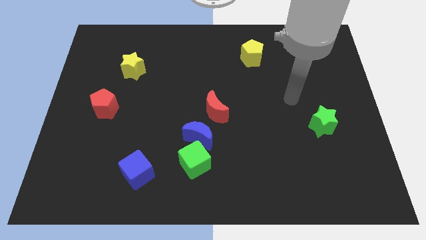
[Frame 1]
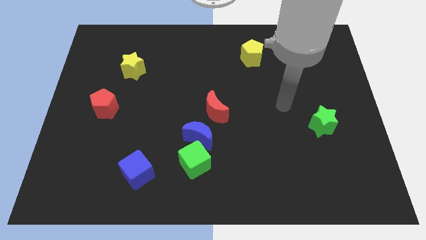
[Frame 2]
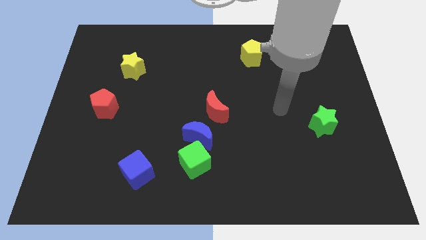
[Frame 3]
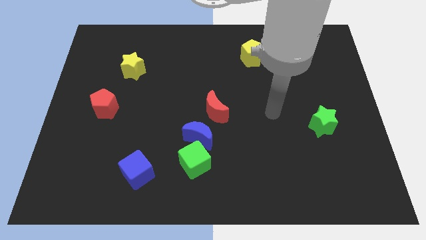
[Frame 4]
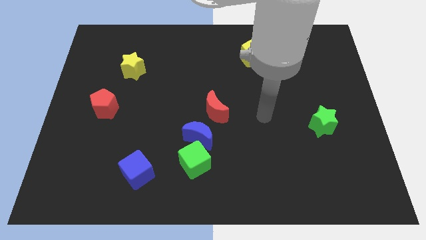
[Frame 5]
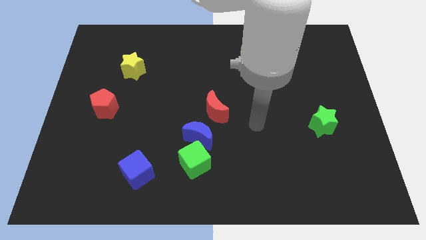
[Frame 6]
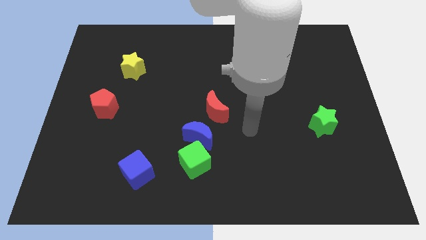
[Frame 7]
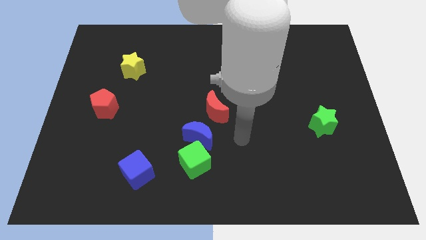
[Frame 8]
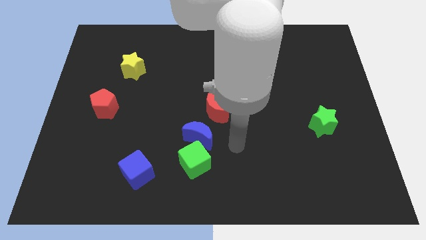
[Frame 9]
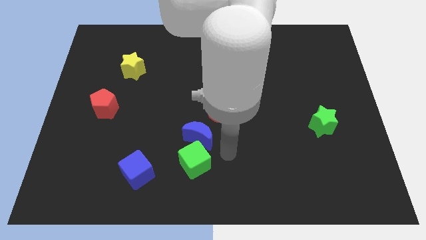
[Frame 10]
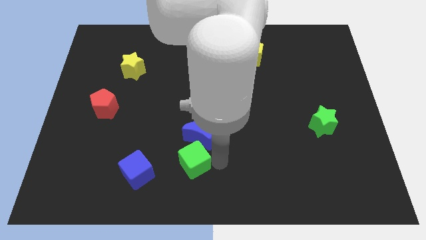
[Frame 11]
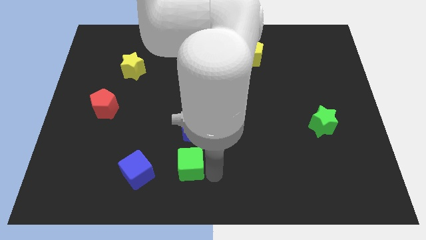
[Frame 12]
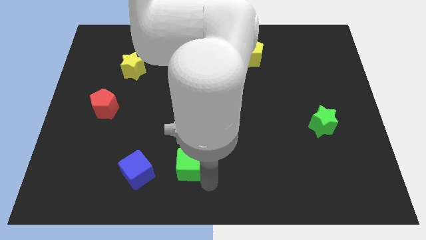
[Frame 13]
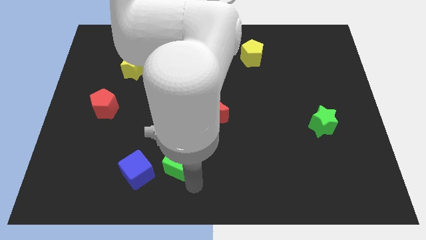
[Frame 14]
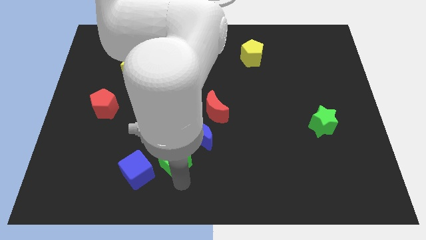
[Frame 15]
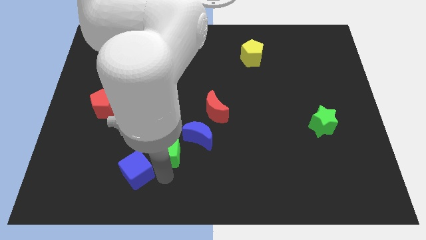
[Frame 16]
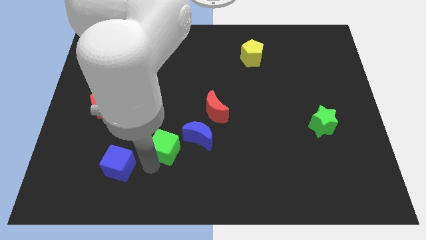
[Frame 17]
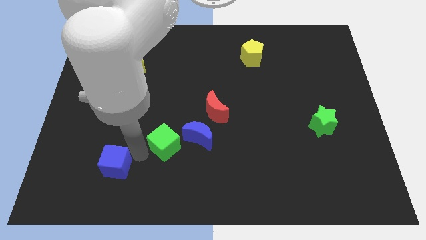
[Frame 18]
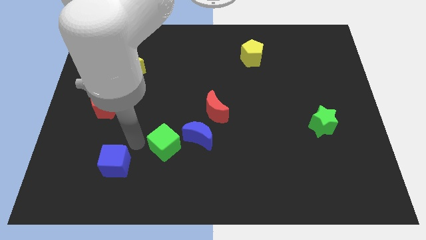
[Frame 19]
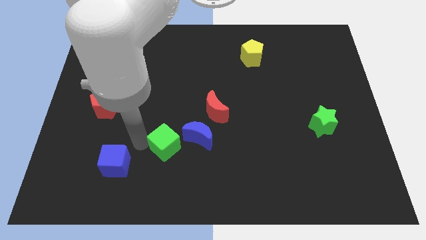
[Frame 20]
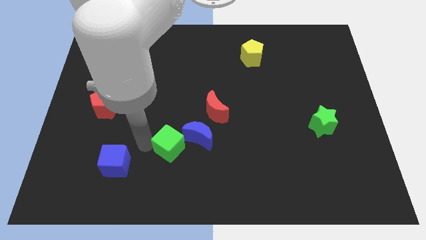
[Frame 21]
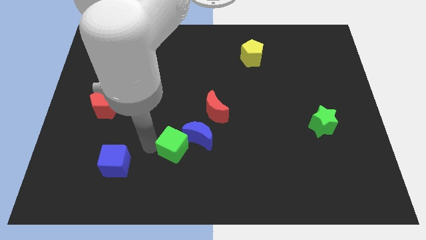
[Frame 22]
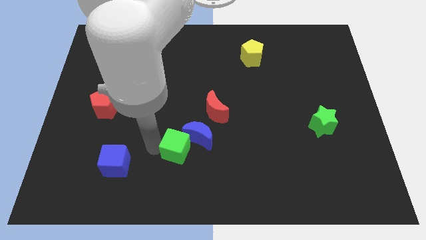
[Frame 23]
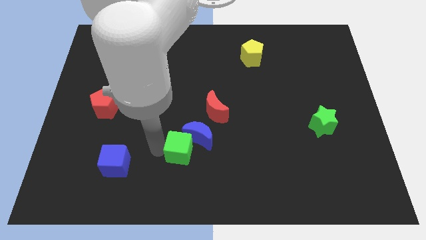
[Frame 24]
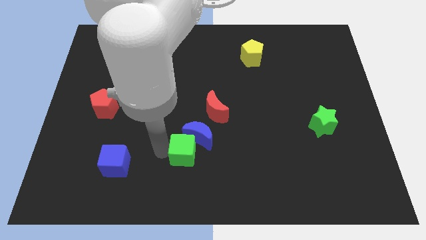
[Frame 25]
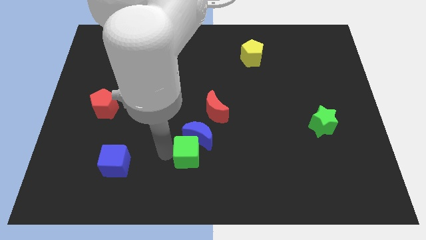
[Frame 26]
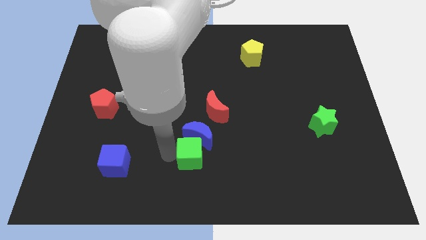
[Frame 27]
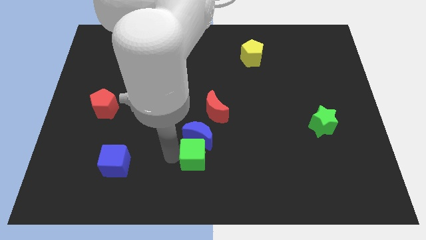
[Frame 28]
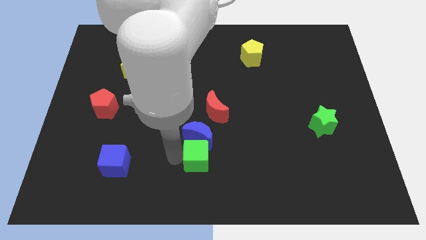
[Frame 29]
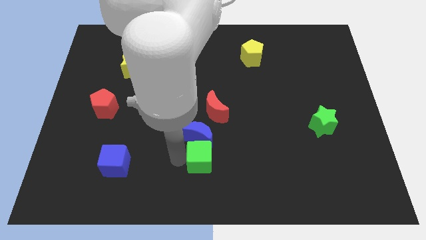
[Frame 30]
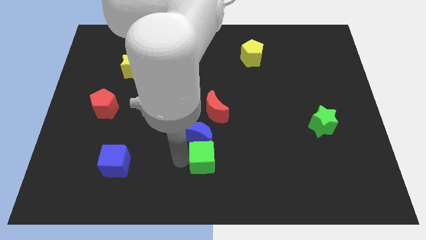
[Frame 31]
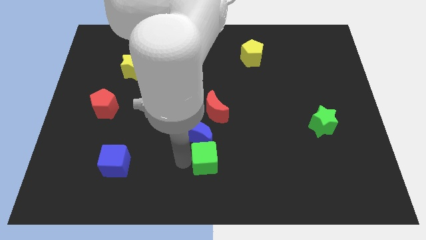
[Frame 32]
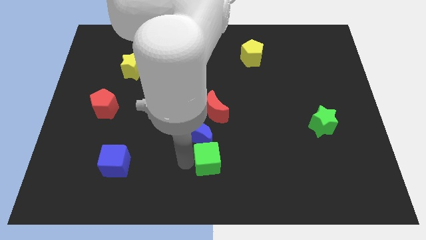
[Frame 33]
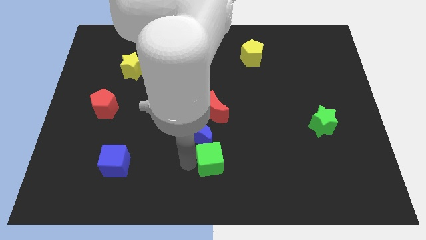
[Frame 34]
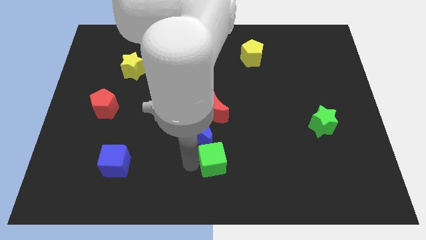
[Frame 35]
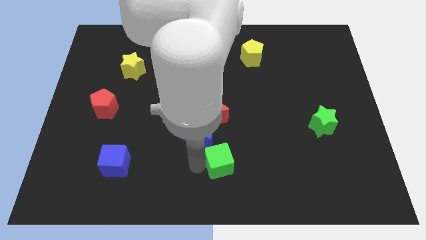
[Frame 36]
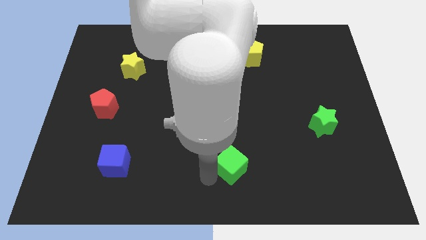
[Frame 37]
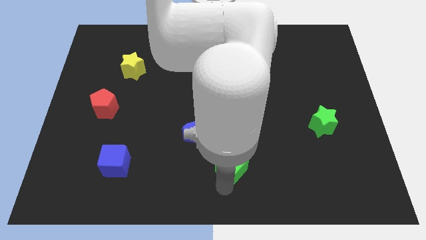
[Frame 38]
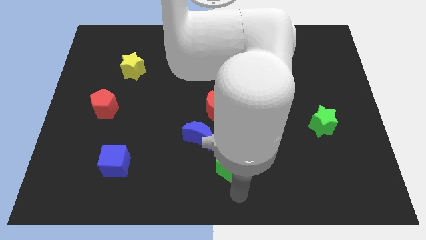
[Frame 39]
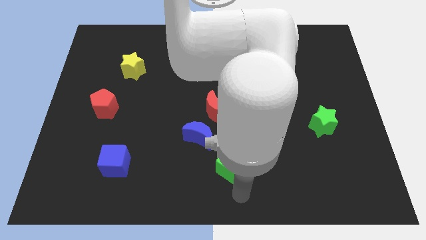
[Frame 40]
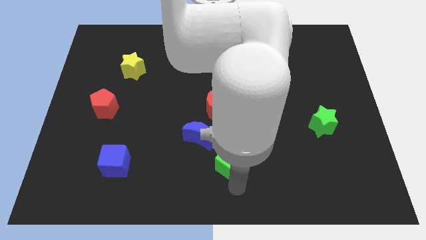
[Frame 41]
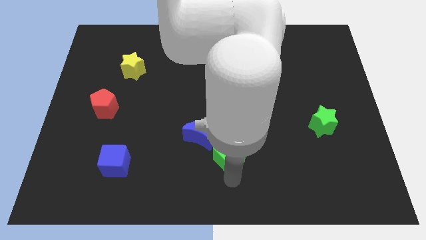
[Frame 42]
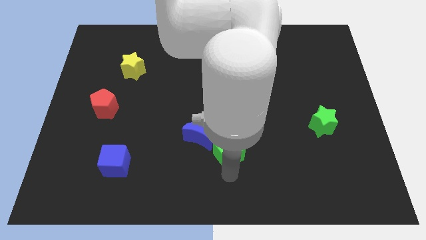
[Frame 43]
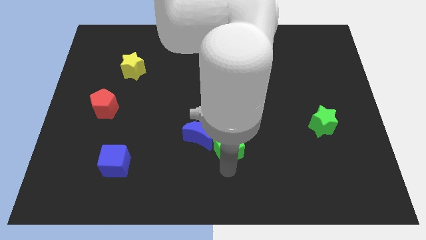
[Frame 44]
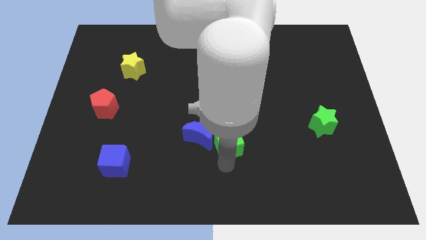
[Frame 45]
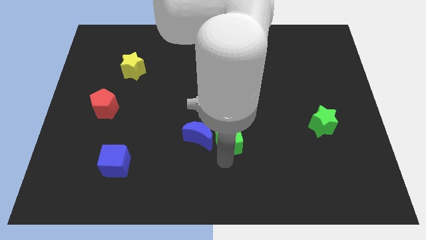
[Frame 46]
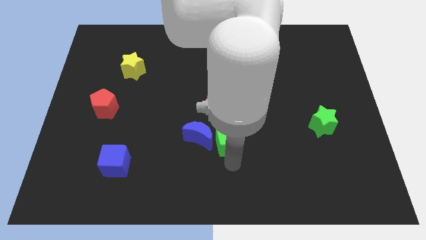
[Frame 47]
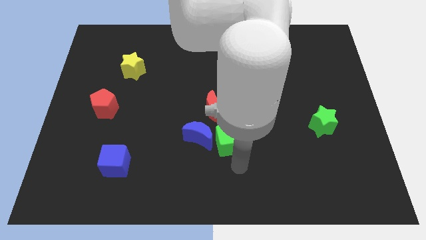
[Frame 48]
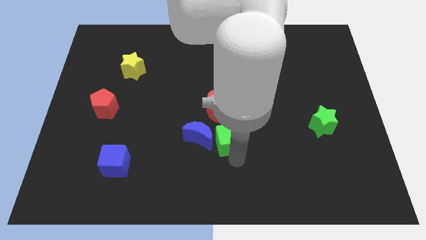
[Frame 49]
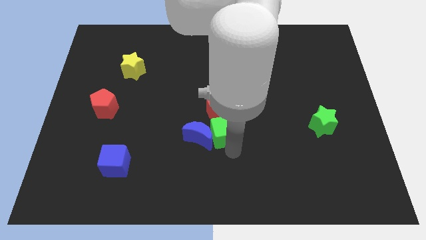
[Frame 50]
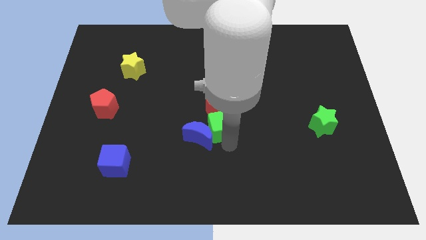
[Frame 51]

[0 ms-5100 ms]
put the green cube towards the red moon

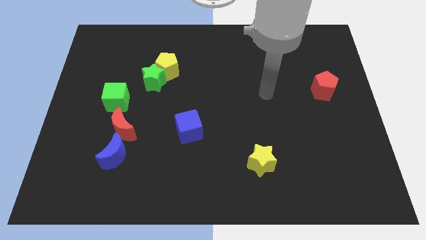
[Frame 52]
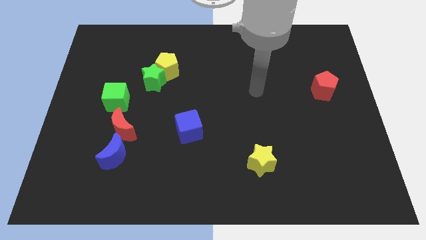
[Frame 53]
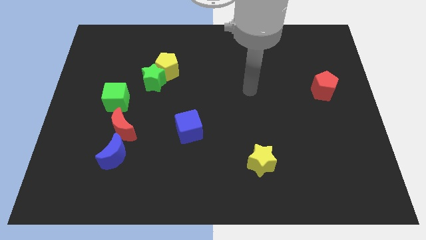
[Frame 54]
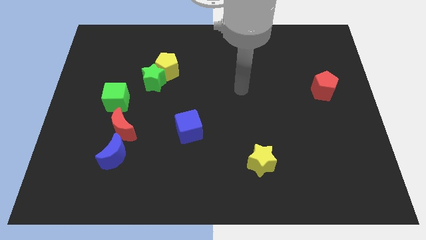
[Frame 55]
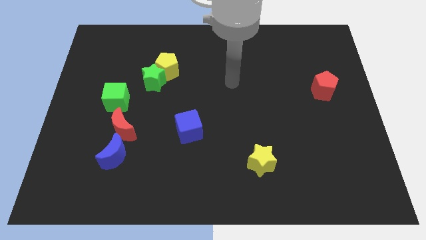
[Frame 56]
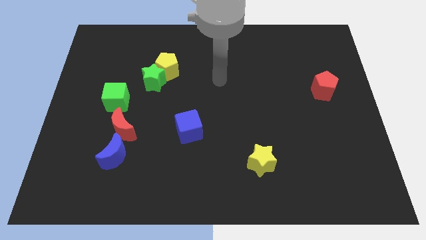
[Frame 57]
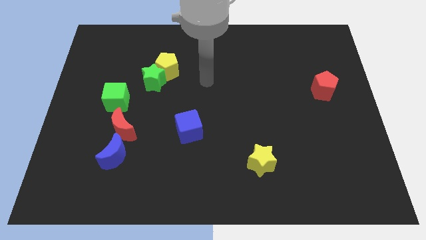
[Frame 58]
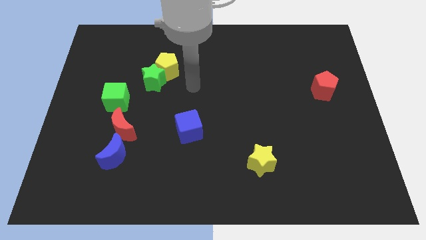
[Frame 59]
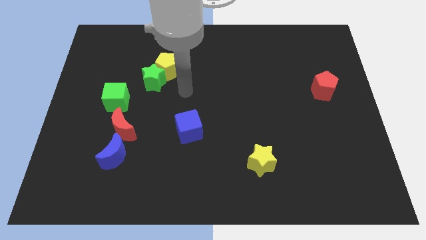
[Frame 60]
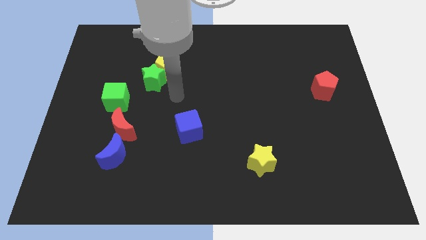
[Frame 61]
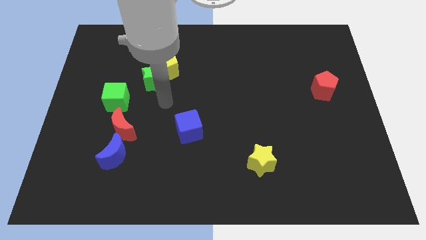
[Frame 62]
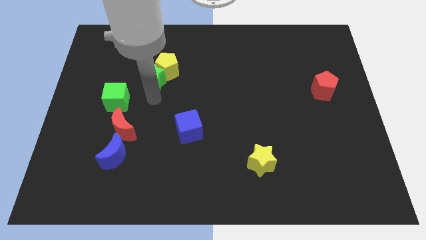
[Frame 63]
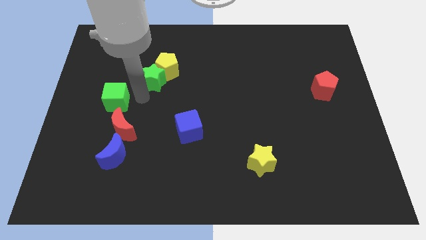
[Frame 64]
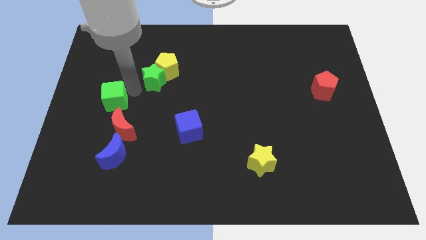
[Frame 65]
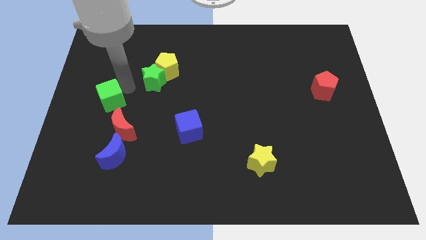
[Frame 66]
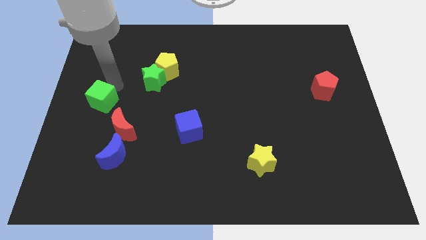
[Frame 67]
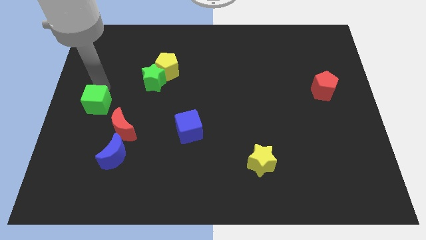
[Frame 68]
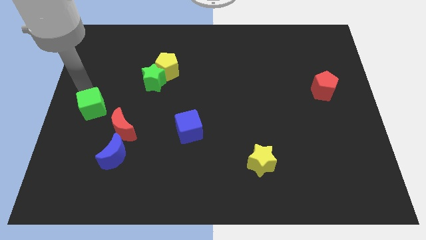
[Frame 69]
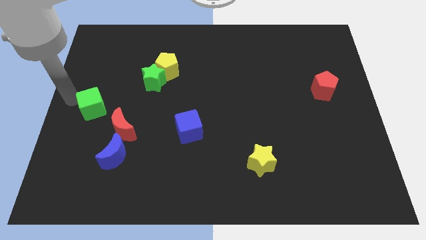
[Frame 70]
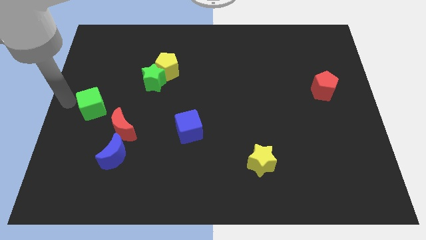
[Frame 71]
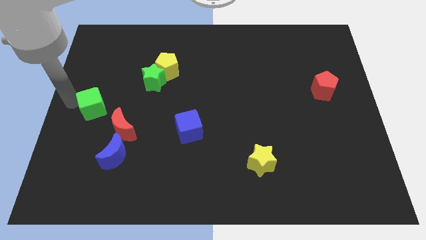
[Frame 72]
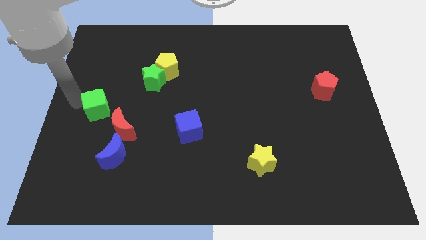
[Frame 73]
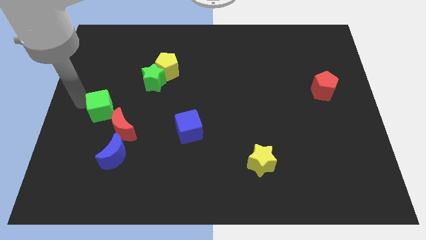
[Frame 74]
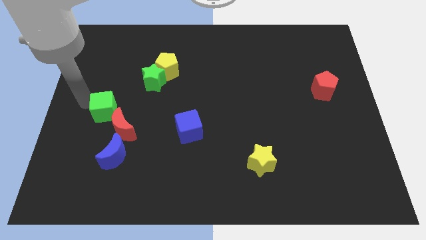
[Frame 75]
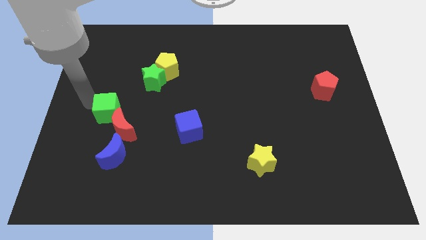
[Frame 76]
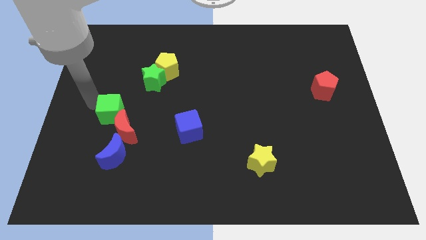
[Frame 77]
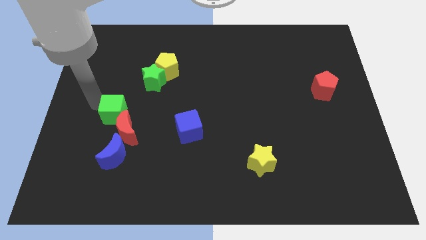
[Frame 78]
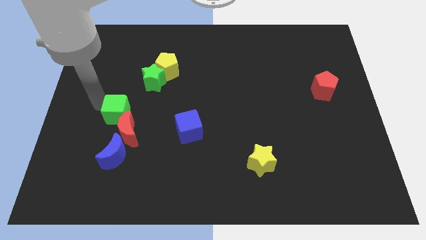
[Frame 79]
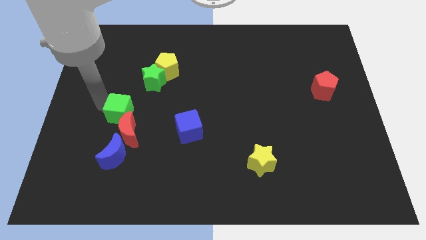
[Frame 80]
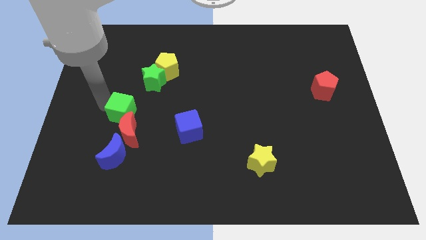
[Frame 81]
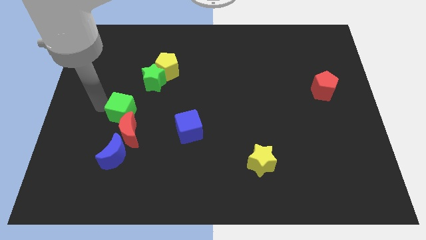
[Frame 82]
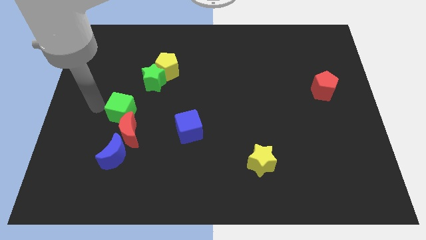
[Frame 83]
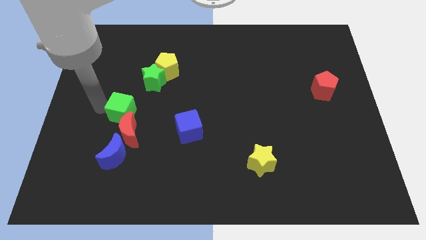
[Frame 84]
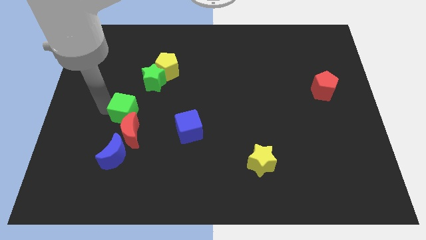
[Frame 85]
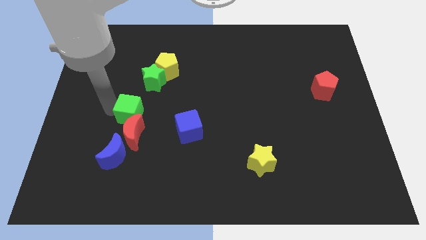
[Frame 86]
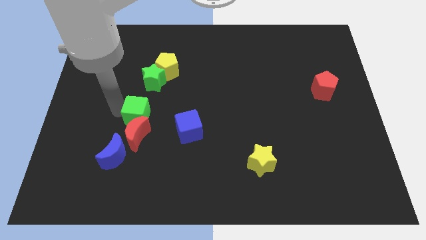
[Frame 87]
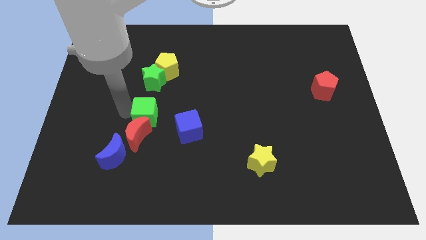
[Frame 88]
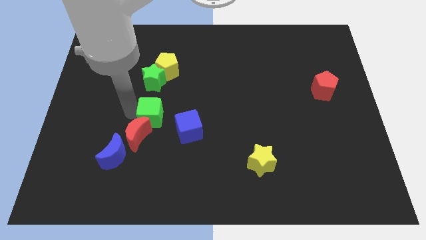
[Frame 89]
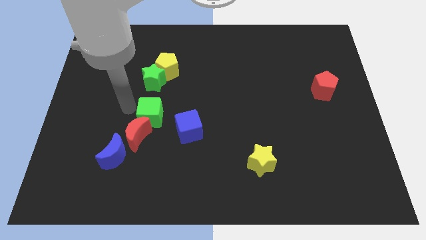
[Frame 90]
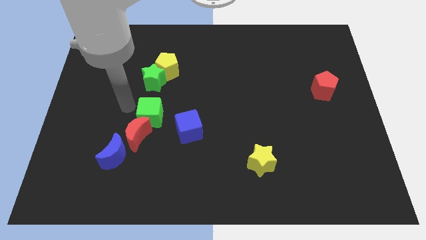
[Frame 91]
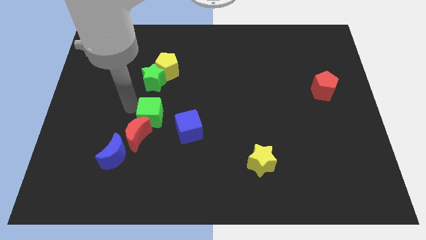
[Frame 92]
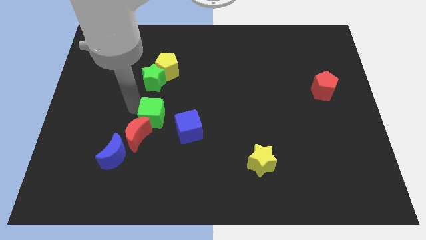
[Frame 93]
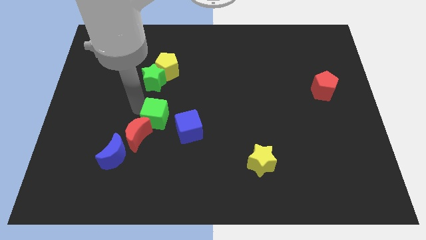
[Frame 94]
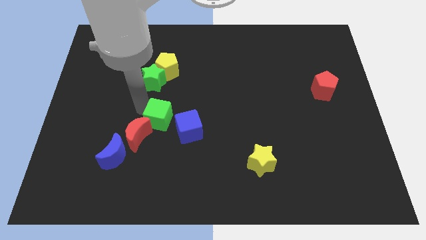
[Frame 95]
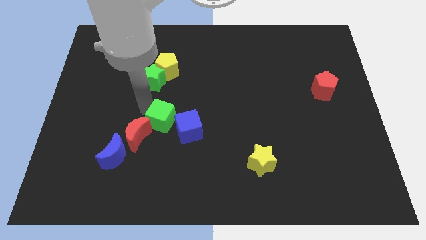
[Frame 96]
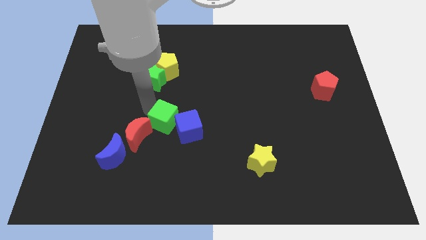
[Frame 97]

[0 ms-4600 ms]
slide the green cube to the blue cube
